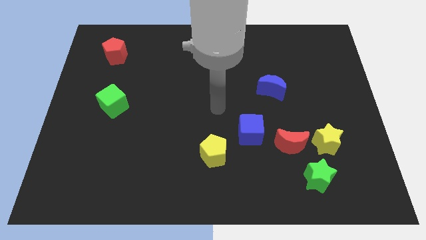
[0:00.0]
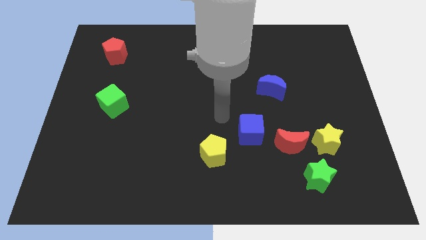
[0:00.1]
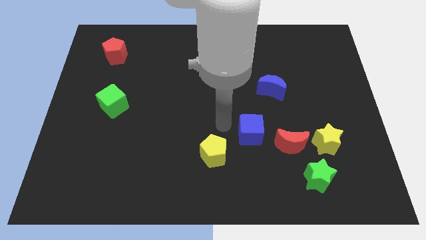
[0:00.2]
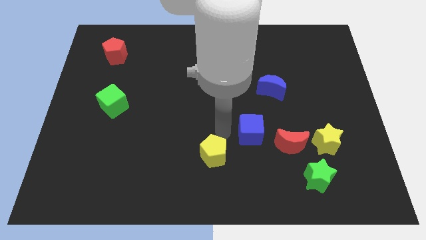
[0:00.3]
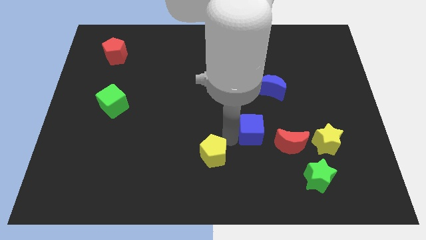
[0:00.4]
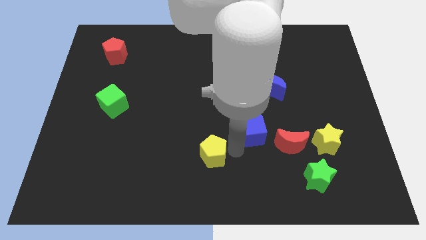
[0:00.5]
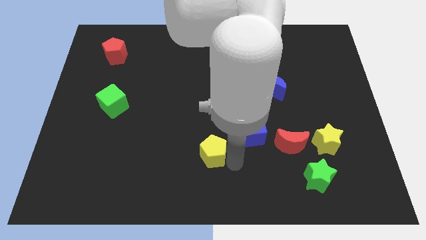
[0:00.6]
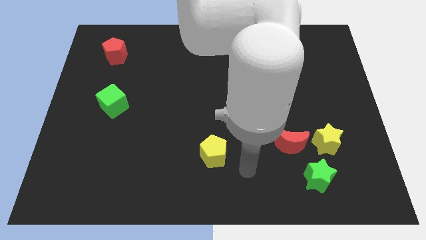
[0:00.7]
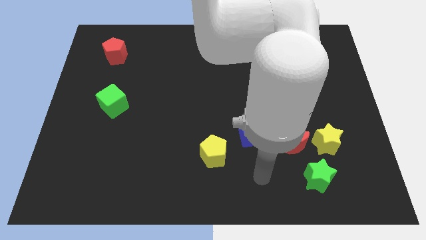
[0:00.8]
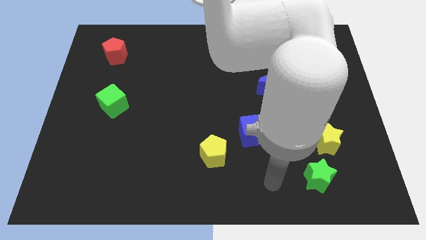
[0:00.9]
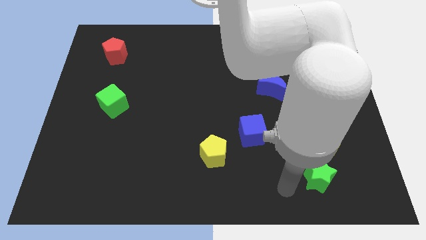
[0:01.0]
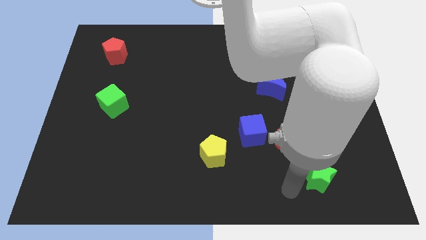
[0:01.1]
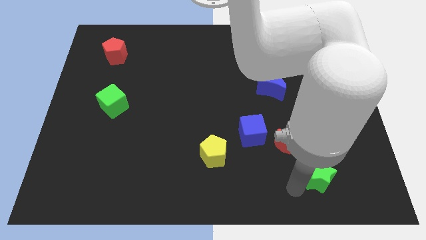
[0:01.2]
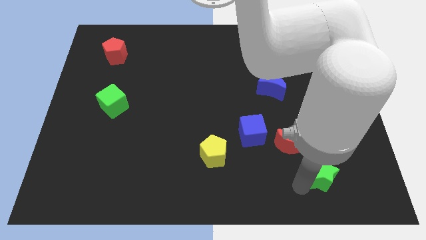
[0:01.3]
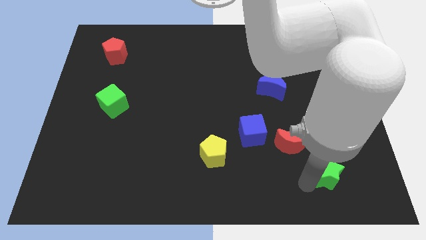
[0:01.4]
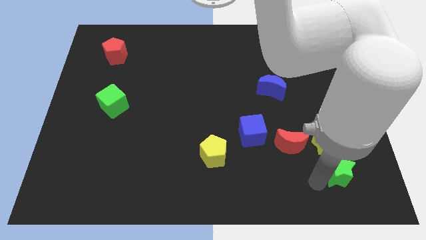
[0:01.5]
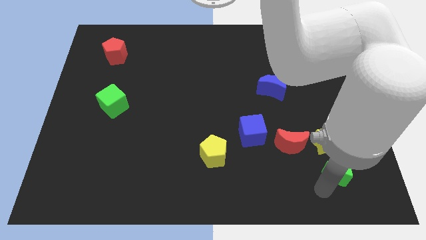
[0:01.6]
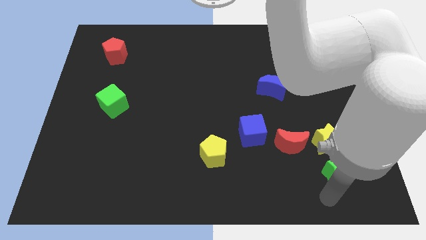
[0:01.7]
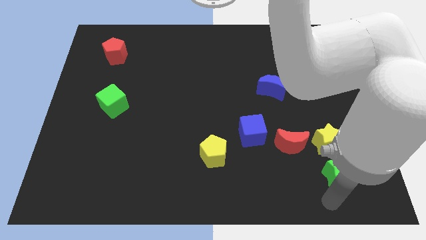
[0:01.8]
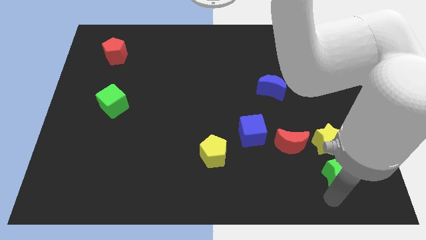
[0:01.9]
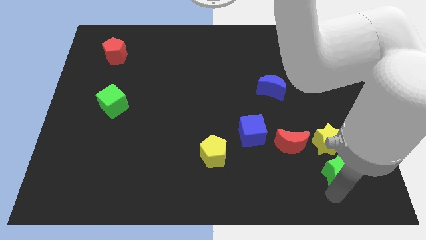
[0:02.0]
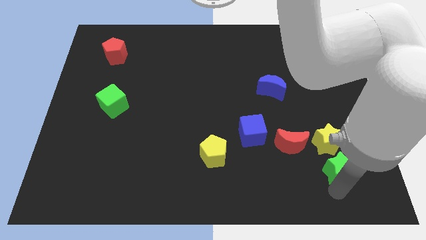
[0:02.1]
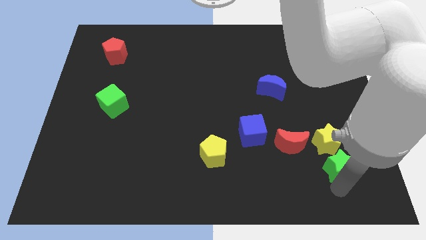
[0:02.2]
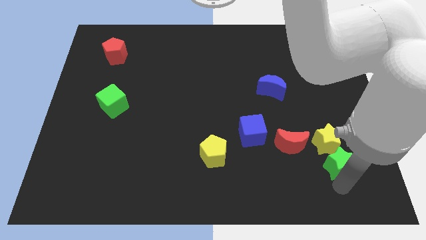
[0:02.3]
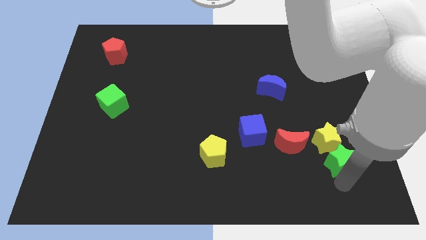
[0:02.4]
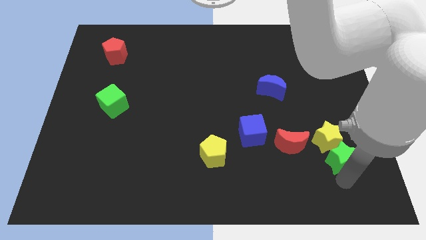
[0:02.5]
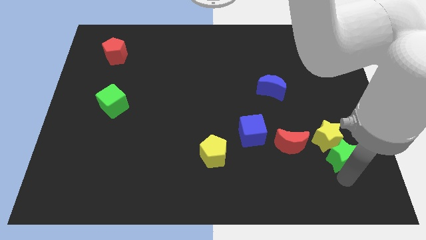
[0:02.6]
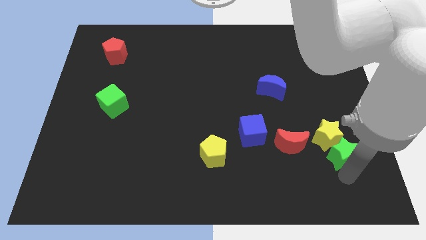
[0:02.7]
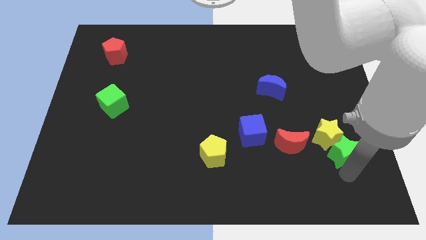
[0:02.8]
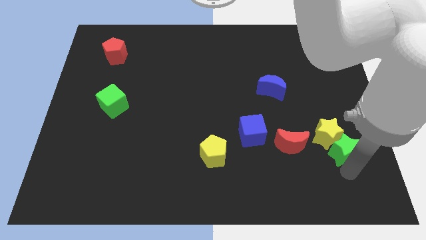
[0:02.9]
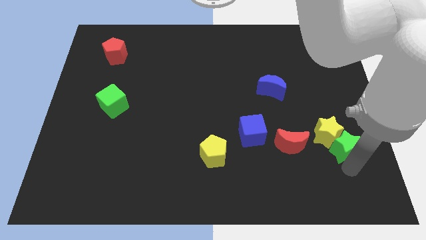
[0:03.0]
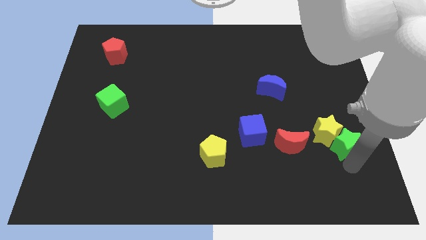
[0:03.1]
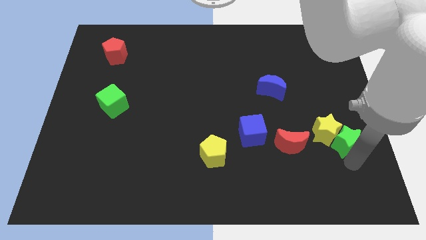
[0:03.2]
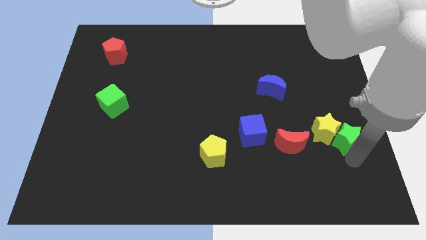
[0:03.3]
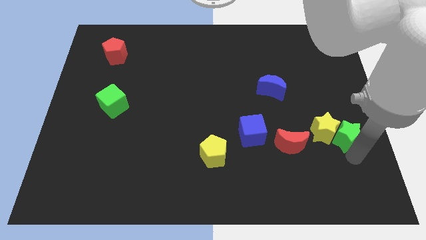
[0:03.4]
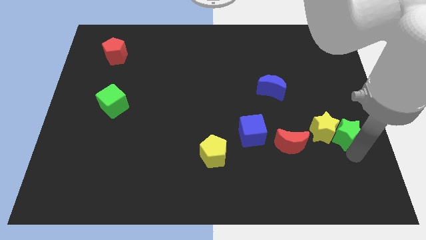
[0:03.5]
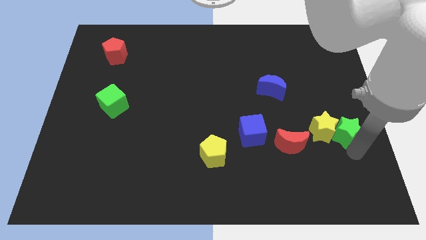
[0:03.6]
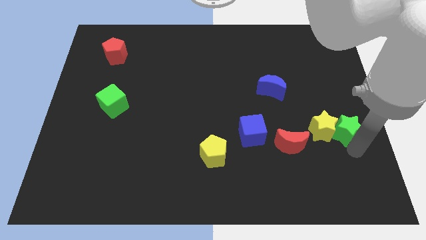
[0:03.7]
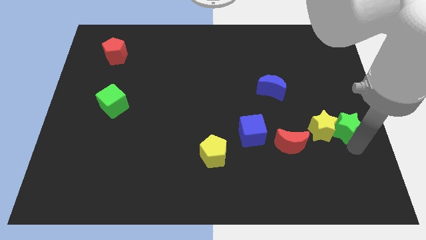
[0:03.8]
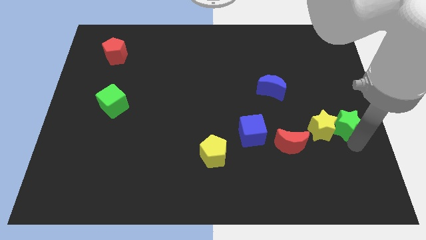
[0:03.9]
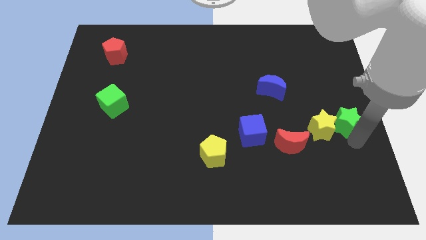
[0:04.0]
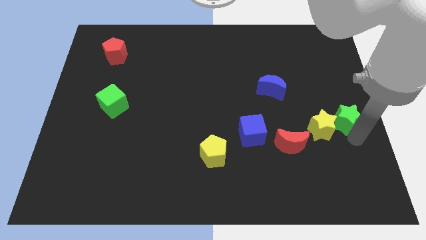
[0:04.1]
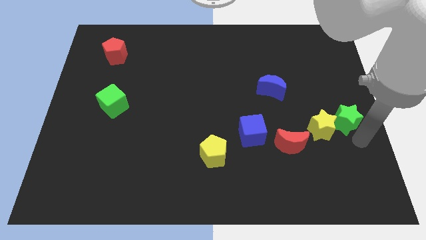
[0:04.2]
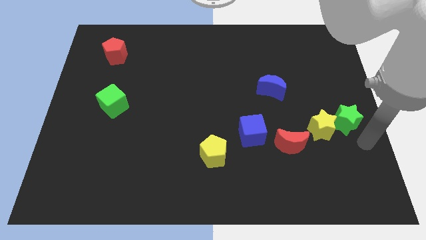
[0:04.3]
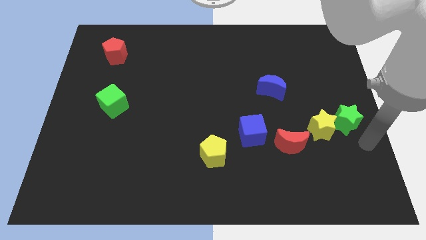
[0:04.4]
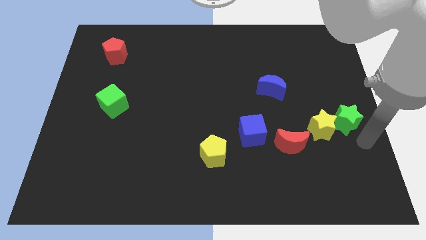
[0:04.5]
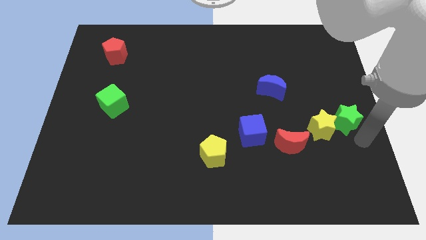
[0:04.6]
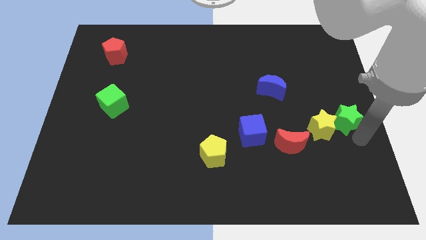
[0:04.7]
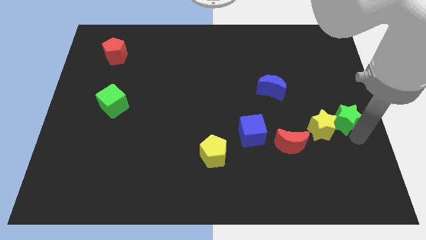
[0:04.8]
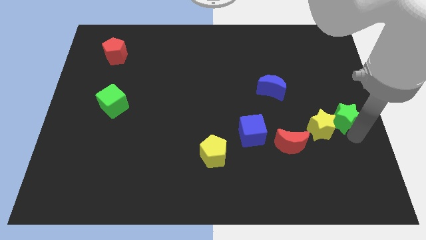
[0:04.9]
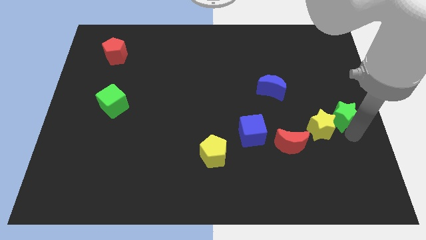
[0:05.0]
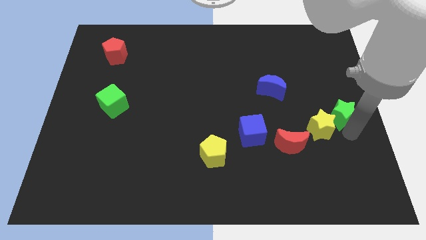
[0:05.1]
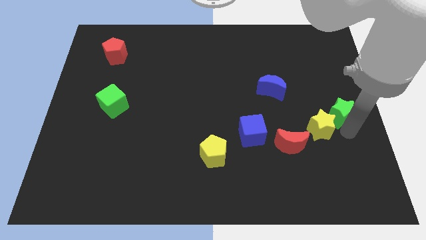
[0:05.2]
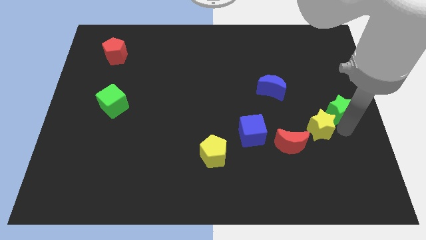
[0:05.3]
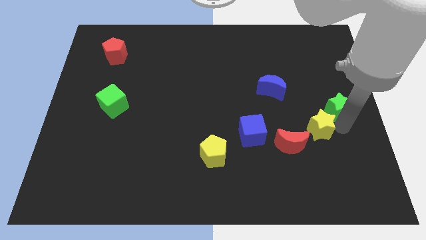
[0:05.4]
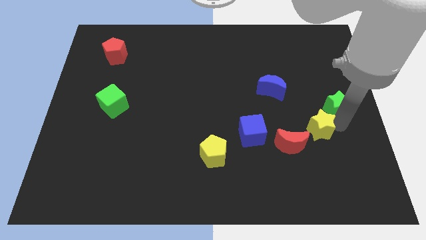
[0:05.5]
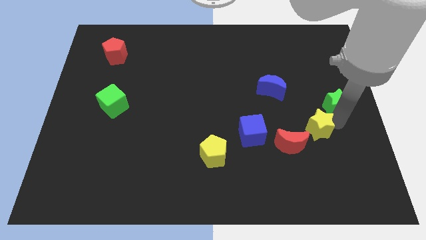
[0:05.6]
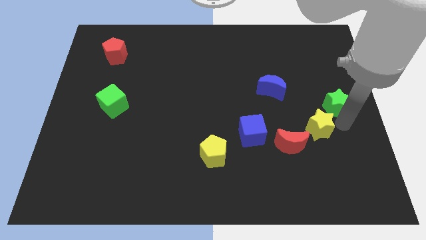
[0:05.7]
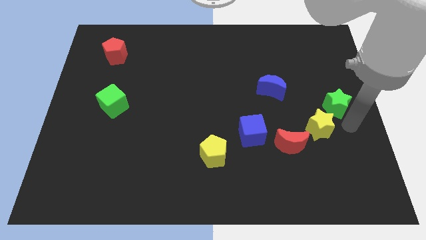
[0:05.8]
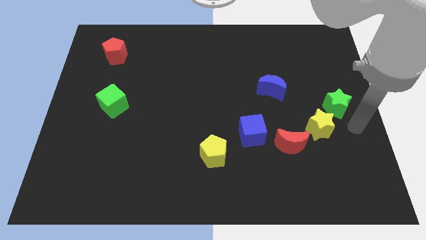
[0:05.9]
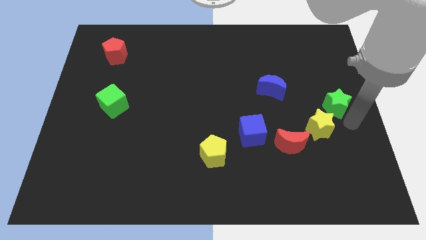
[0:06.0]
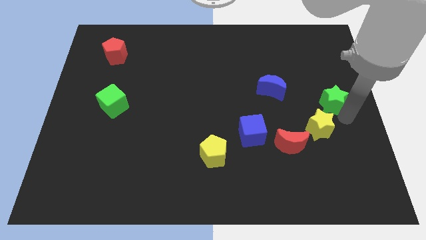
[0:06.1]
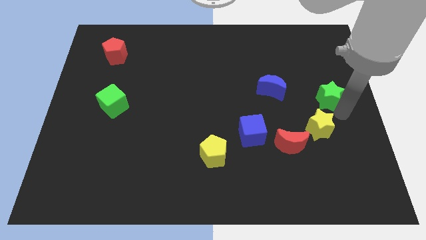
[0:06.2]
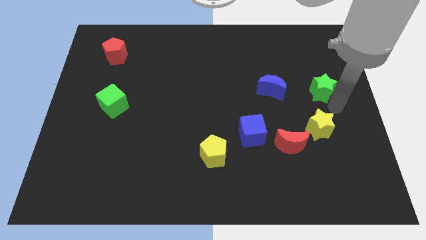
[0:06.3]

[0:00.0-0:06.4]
move the green star upwards

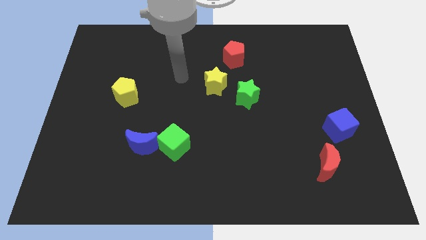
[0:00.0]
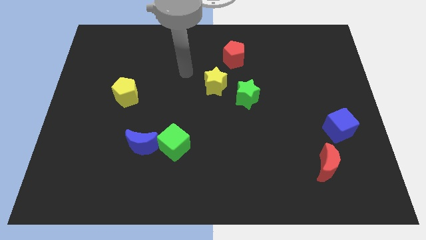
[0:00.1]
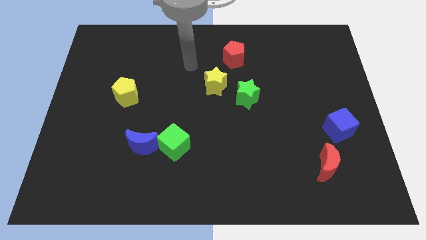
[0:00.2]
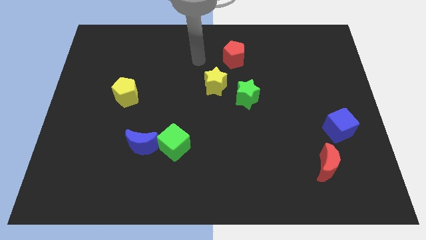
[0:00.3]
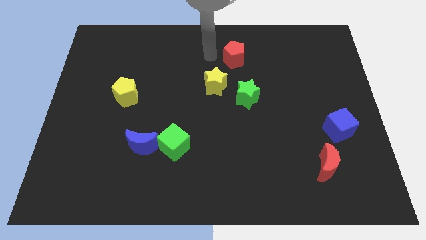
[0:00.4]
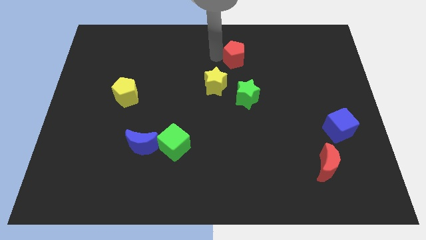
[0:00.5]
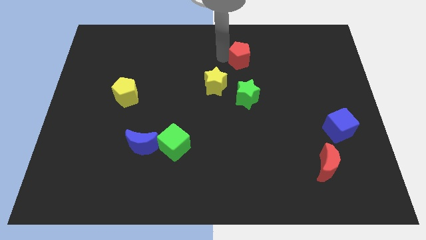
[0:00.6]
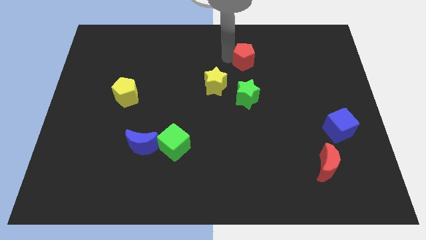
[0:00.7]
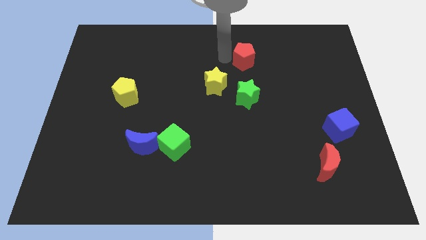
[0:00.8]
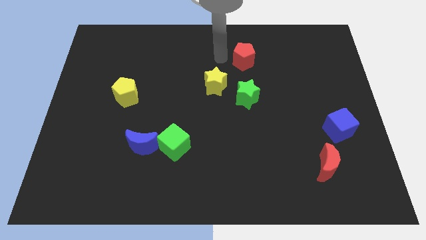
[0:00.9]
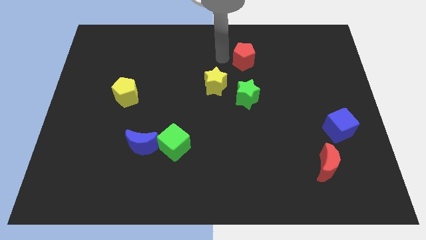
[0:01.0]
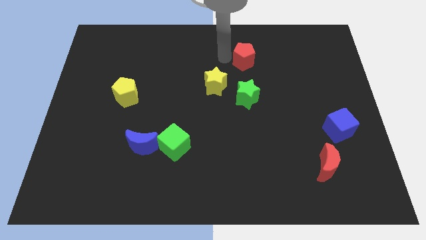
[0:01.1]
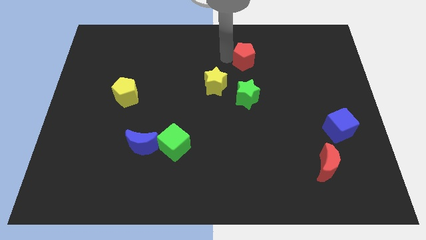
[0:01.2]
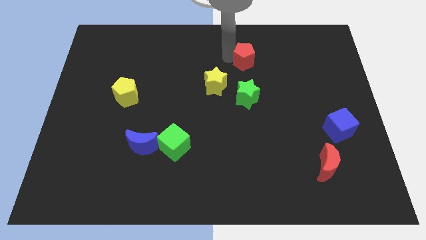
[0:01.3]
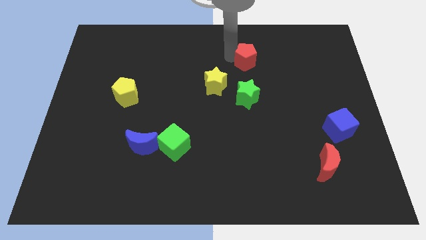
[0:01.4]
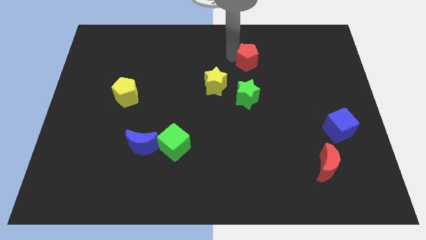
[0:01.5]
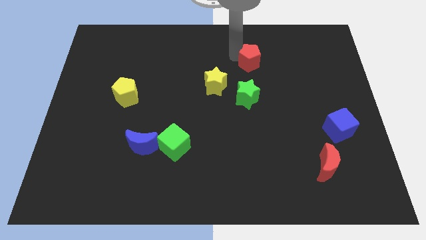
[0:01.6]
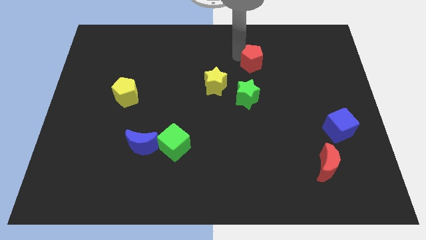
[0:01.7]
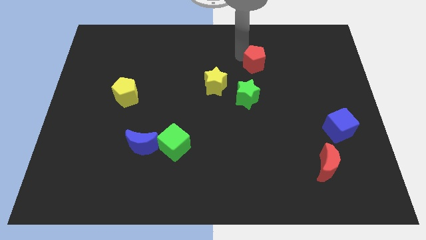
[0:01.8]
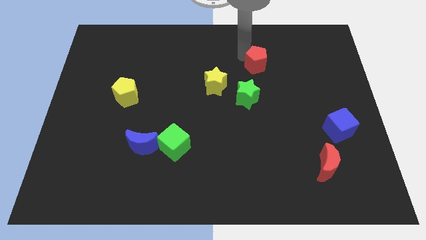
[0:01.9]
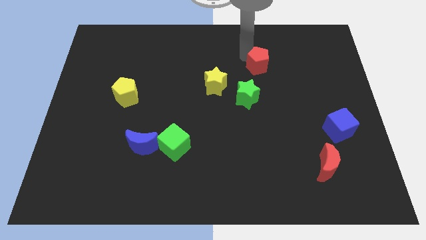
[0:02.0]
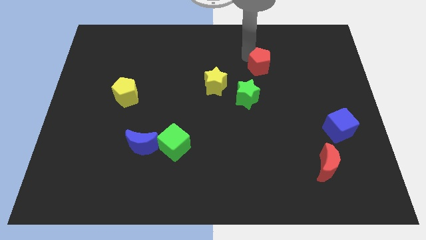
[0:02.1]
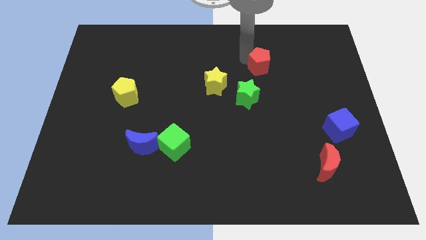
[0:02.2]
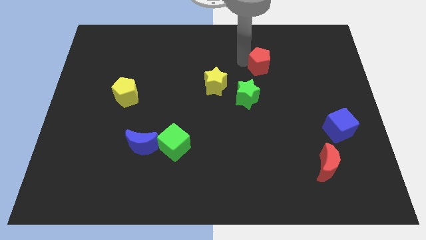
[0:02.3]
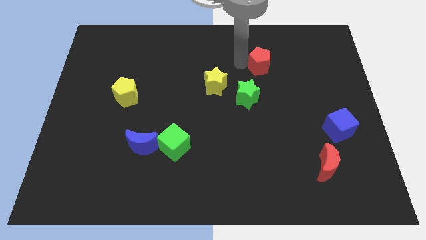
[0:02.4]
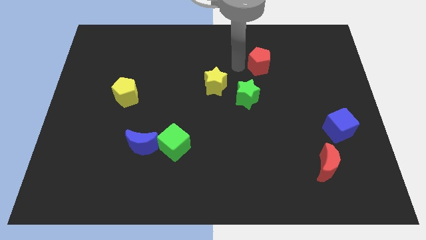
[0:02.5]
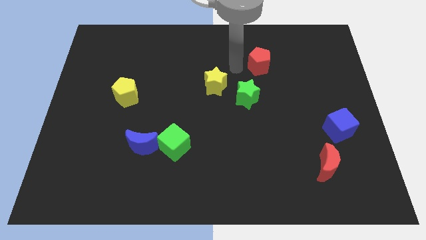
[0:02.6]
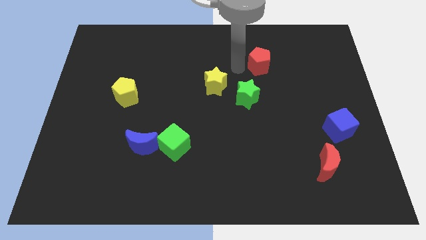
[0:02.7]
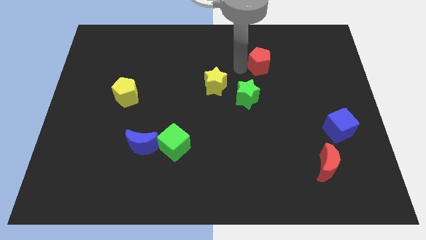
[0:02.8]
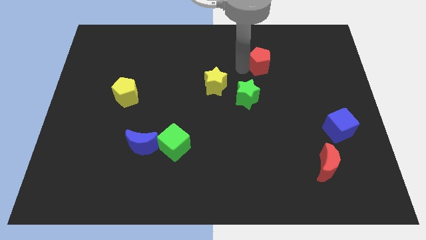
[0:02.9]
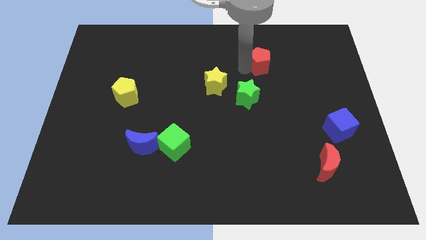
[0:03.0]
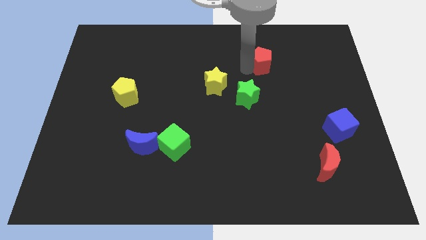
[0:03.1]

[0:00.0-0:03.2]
slightly slide the red pentagon to the right
